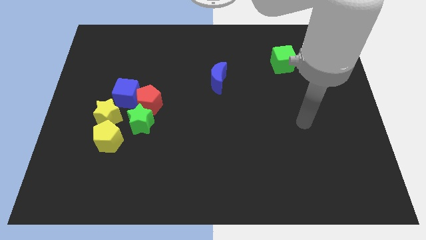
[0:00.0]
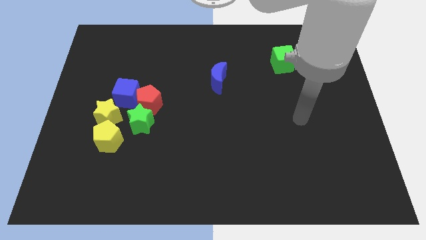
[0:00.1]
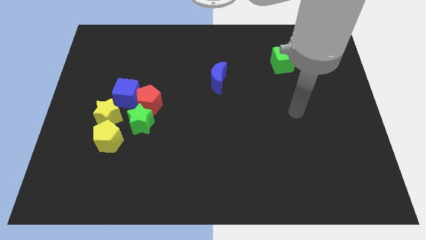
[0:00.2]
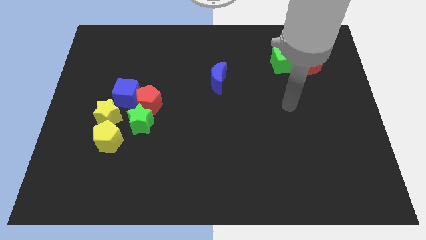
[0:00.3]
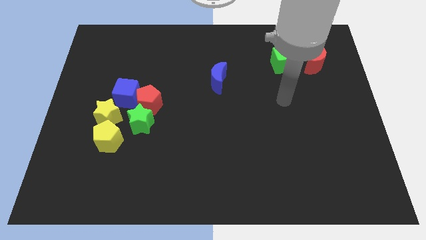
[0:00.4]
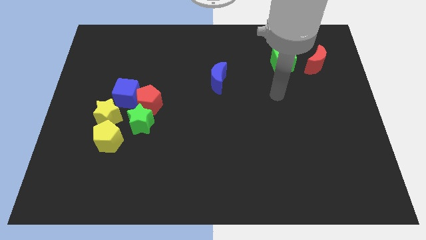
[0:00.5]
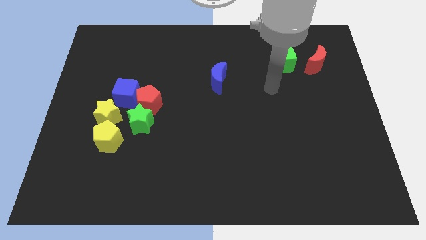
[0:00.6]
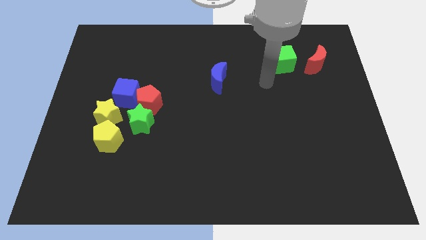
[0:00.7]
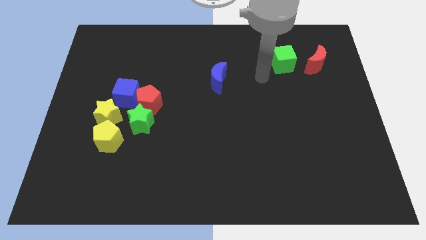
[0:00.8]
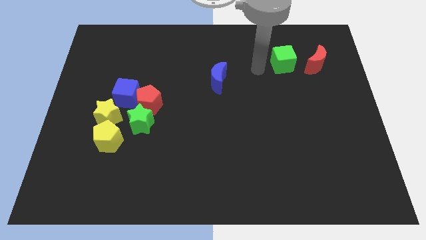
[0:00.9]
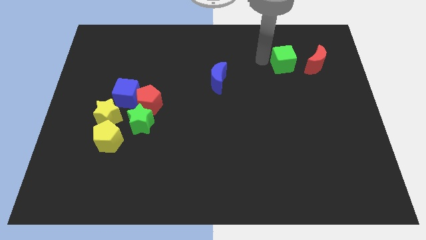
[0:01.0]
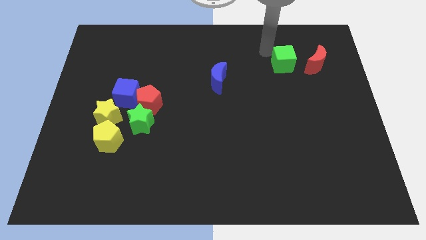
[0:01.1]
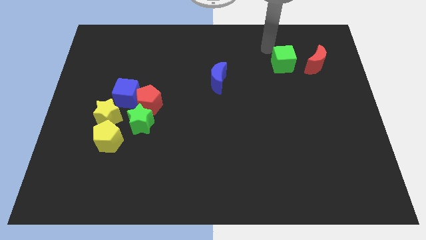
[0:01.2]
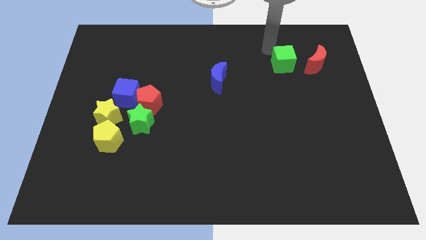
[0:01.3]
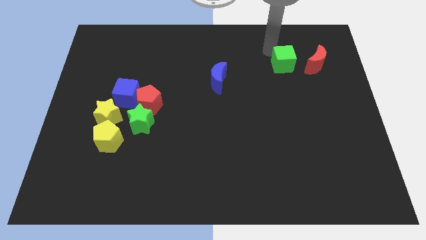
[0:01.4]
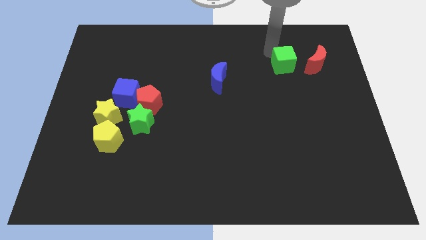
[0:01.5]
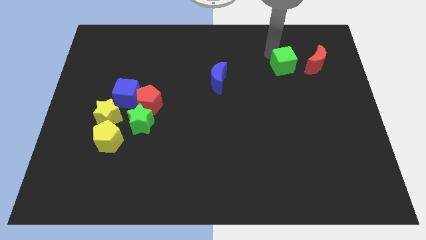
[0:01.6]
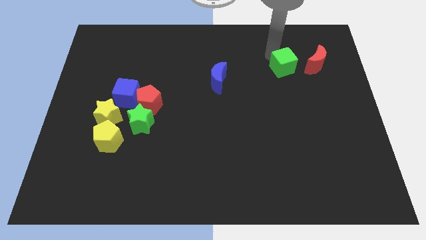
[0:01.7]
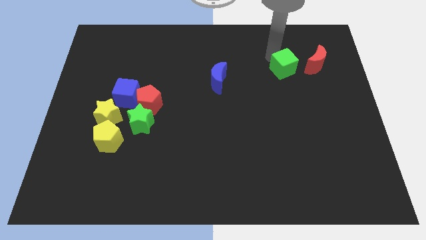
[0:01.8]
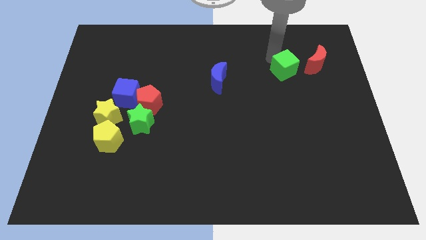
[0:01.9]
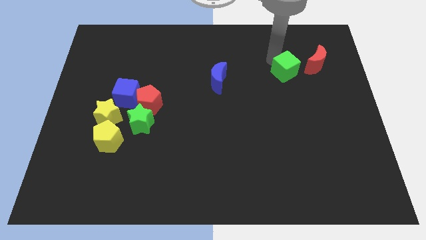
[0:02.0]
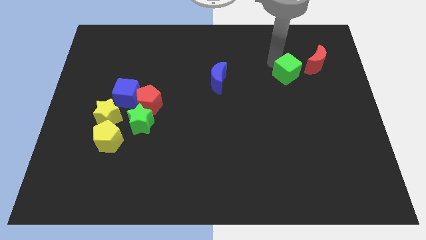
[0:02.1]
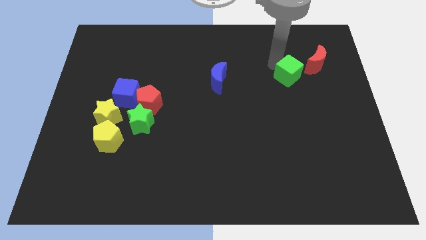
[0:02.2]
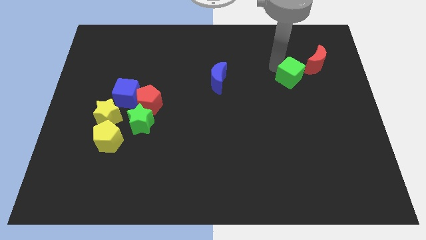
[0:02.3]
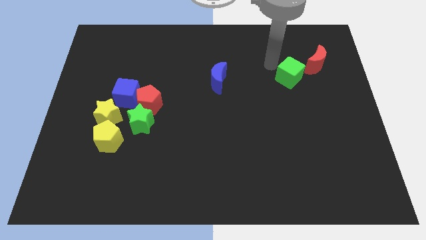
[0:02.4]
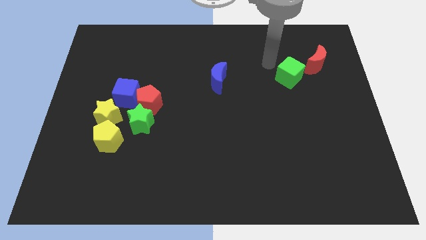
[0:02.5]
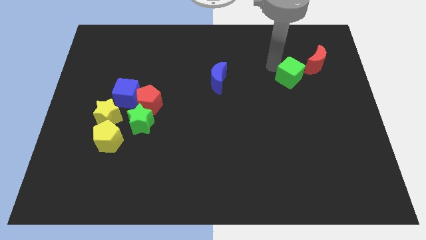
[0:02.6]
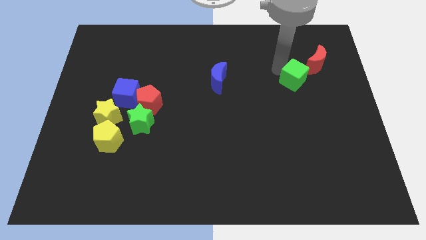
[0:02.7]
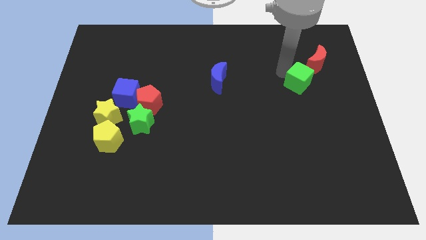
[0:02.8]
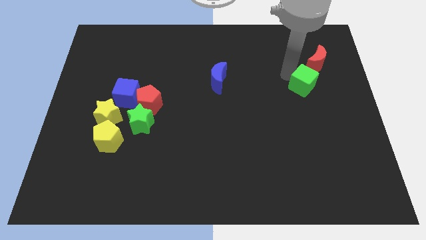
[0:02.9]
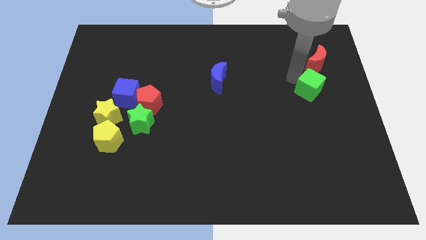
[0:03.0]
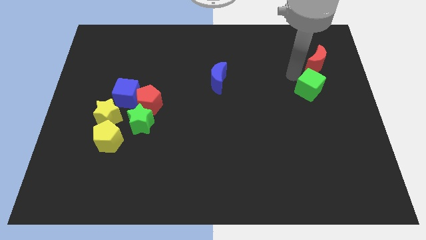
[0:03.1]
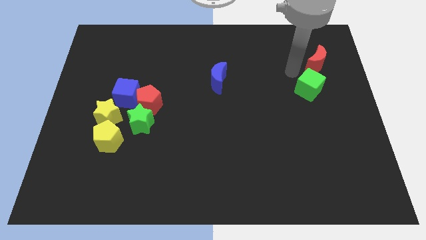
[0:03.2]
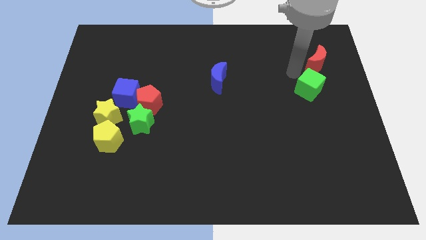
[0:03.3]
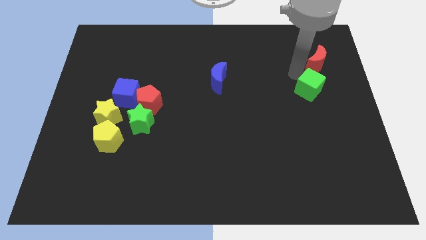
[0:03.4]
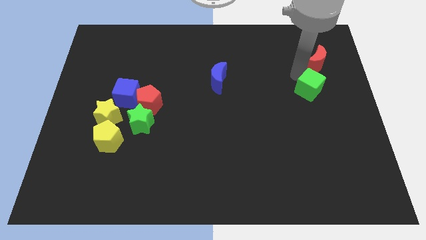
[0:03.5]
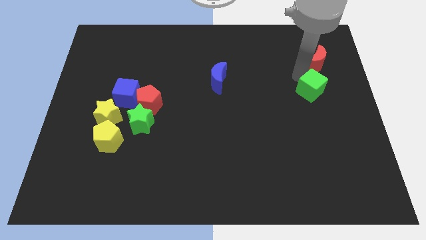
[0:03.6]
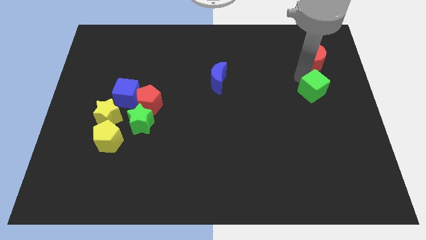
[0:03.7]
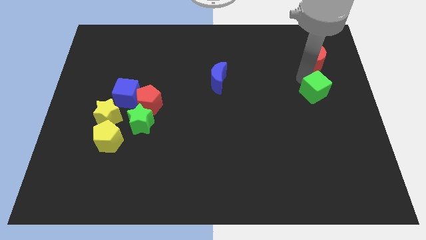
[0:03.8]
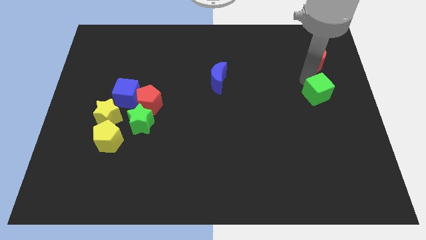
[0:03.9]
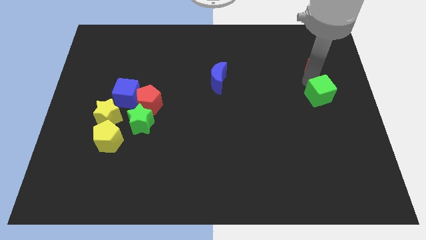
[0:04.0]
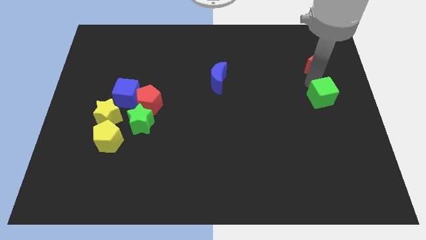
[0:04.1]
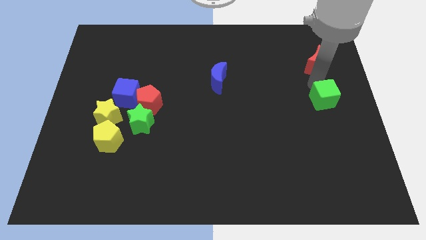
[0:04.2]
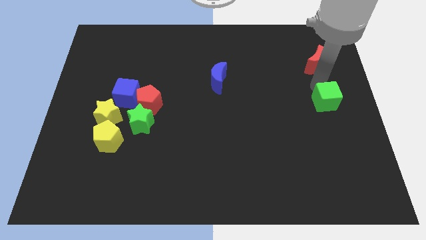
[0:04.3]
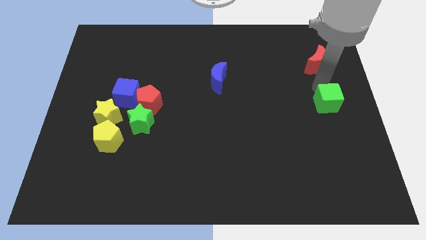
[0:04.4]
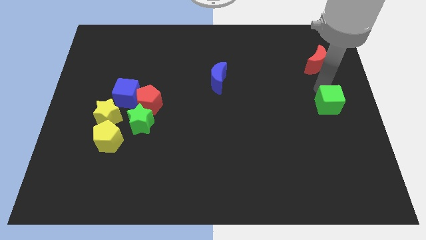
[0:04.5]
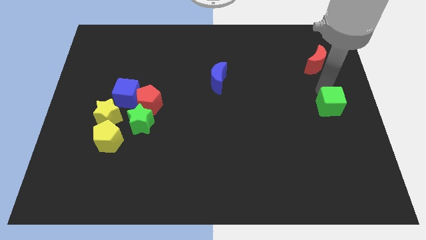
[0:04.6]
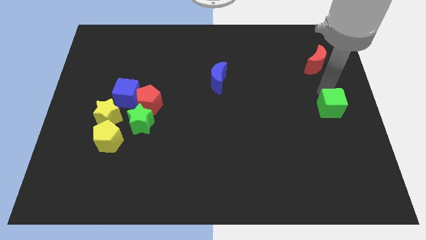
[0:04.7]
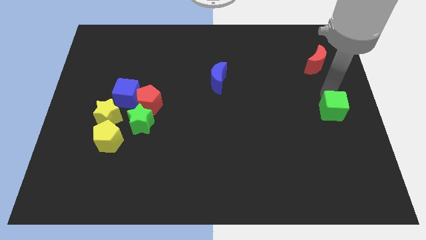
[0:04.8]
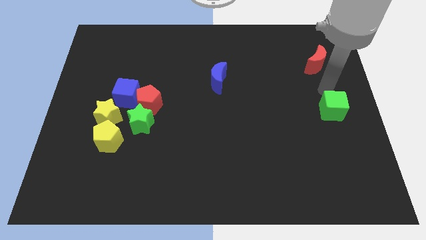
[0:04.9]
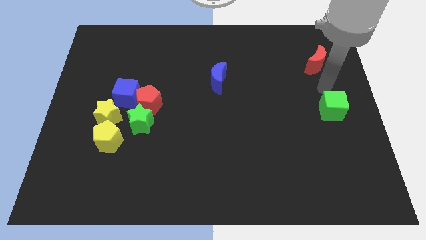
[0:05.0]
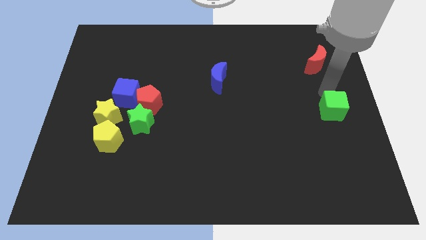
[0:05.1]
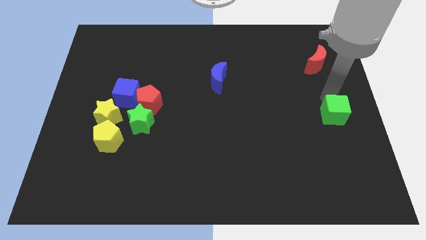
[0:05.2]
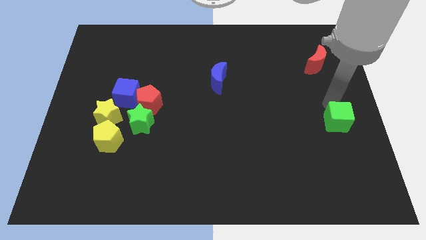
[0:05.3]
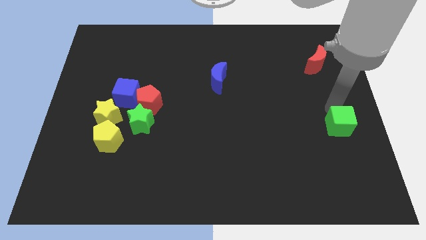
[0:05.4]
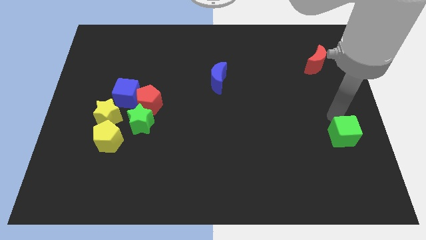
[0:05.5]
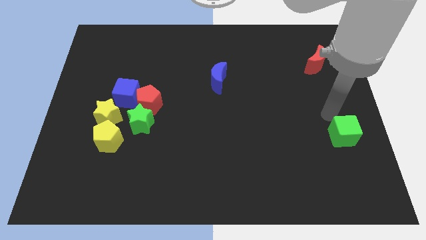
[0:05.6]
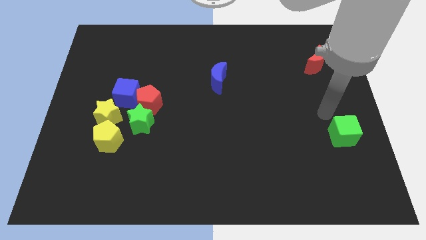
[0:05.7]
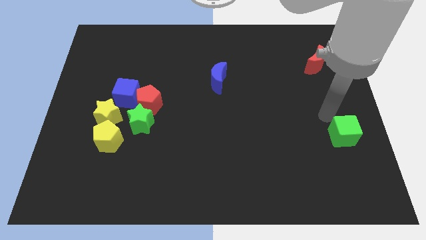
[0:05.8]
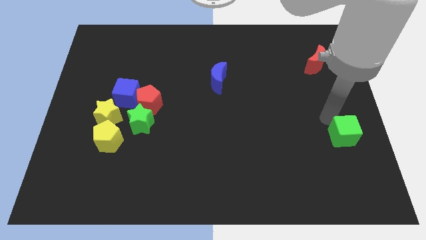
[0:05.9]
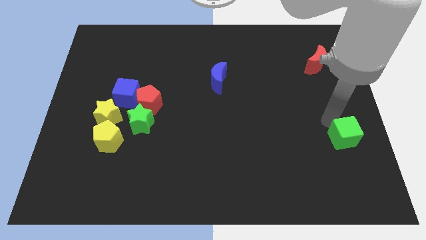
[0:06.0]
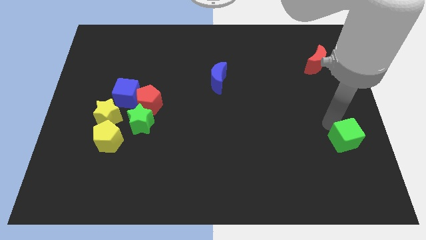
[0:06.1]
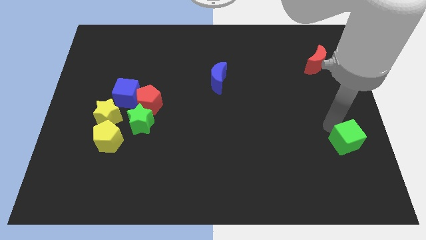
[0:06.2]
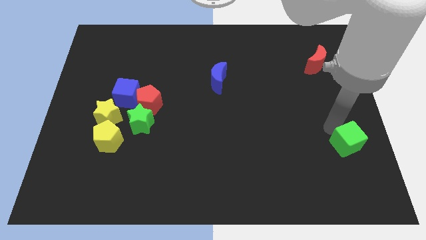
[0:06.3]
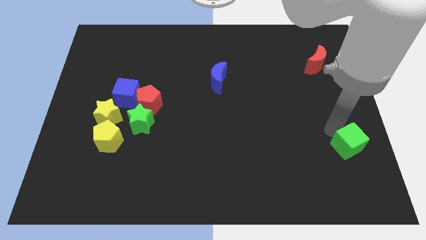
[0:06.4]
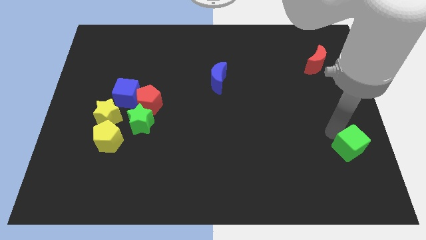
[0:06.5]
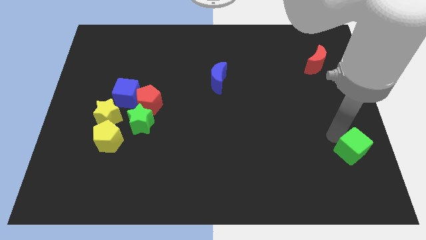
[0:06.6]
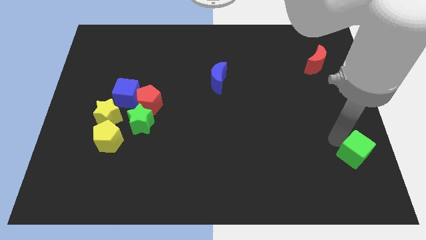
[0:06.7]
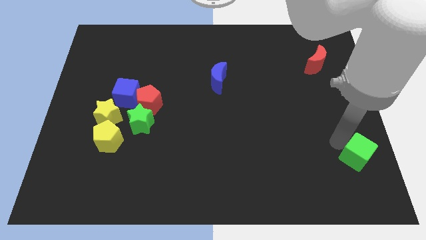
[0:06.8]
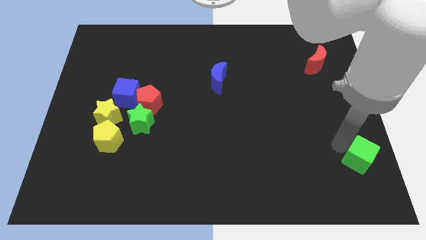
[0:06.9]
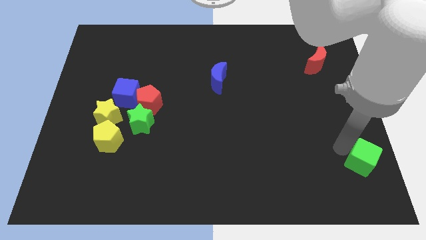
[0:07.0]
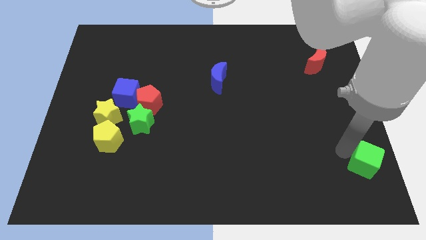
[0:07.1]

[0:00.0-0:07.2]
move the green cube to the bottom right of the board
